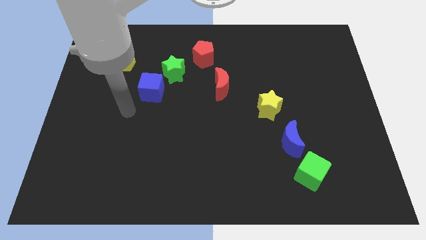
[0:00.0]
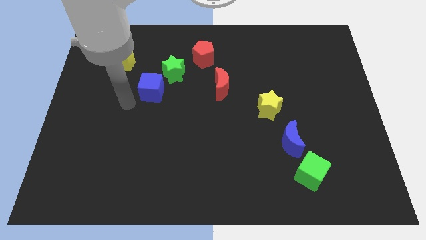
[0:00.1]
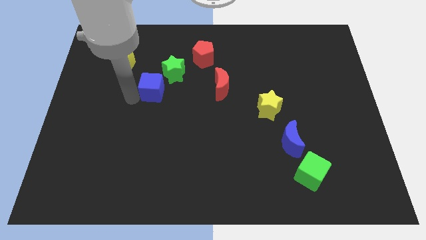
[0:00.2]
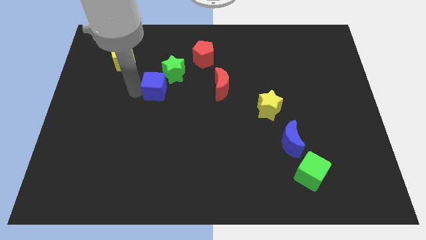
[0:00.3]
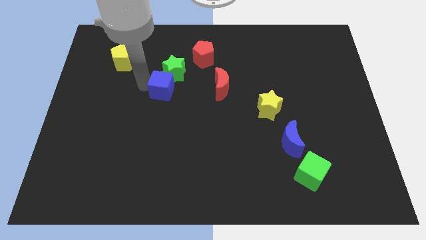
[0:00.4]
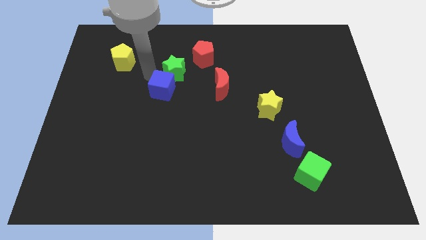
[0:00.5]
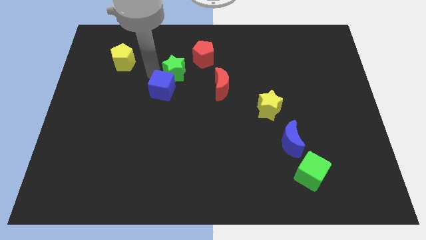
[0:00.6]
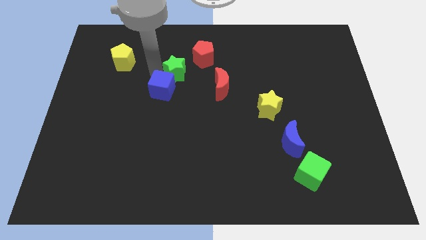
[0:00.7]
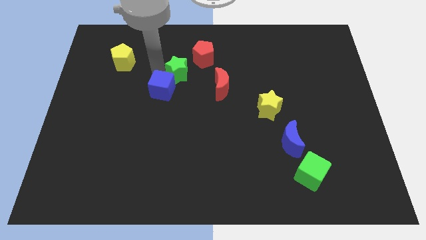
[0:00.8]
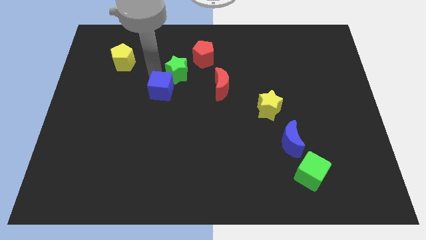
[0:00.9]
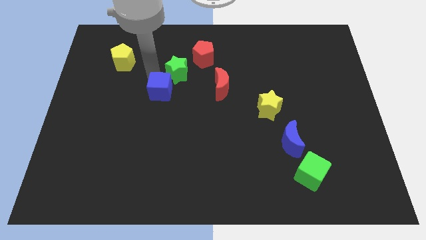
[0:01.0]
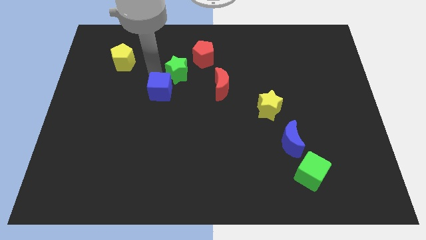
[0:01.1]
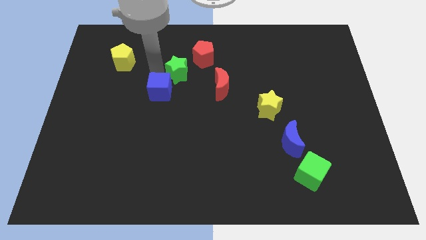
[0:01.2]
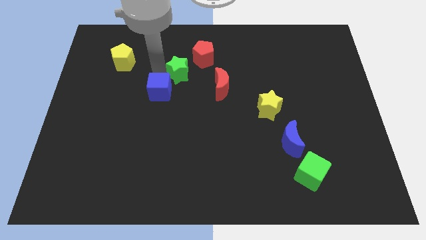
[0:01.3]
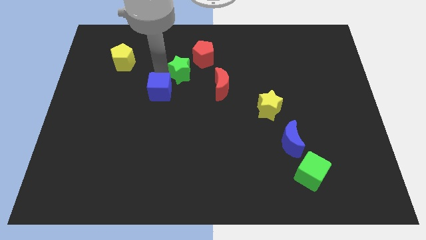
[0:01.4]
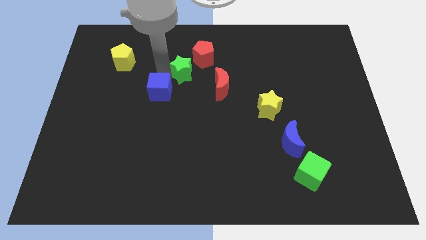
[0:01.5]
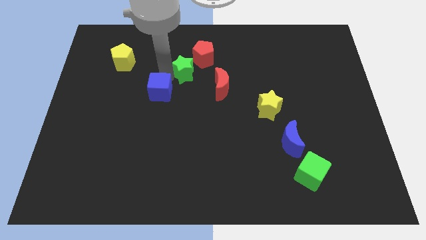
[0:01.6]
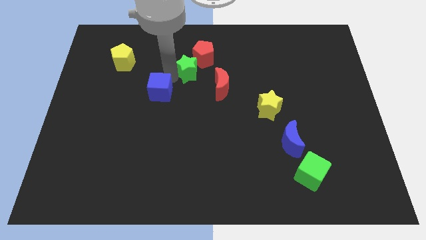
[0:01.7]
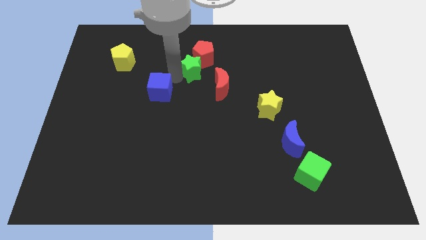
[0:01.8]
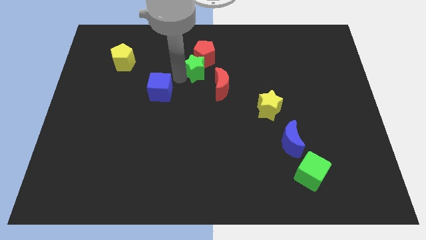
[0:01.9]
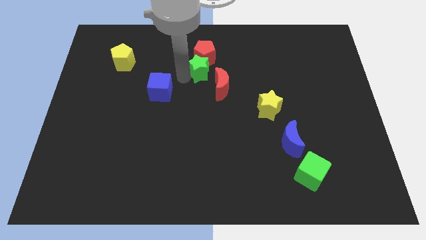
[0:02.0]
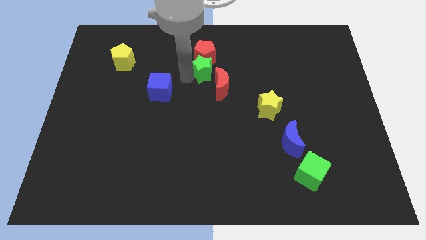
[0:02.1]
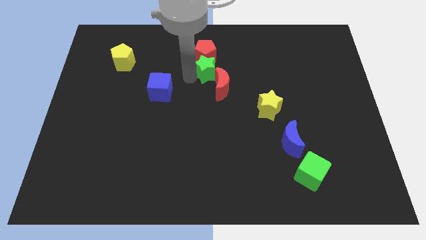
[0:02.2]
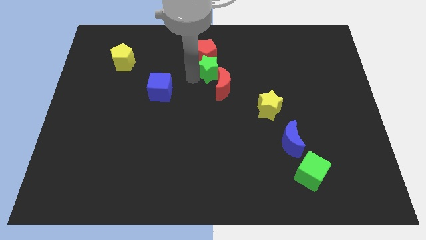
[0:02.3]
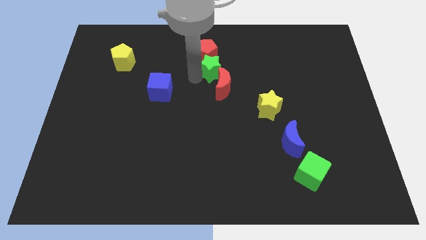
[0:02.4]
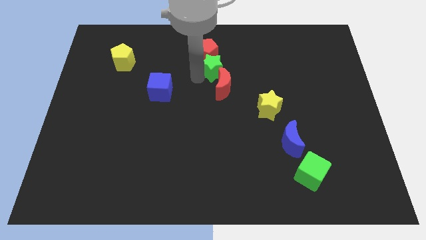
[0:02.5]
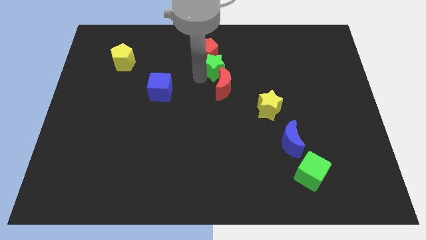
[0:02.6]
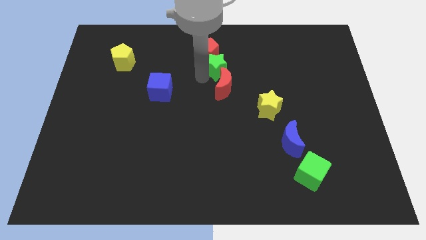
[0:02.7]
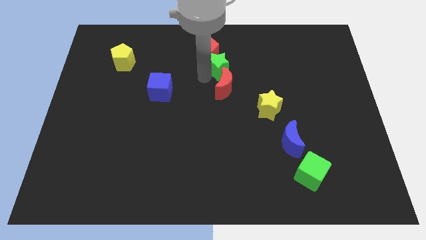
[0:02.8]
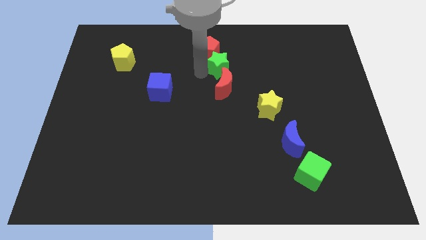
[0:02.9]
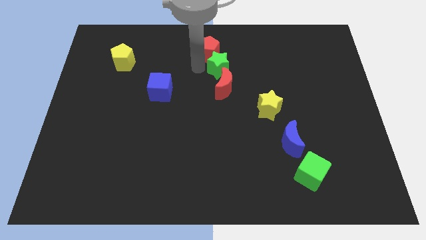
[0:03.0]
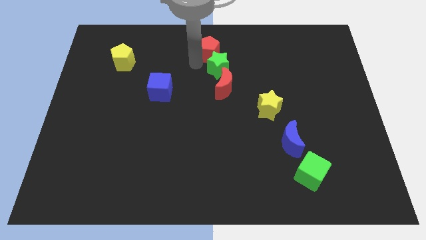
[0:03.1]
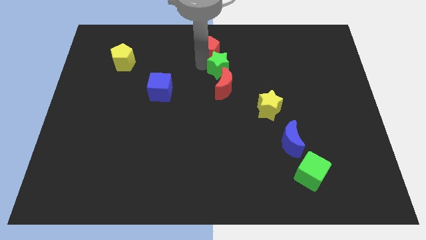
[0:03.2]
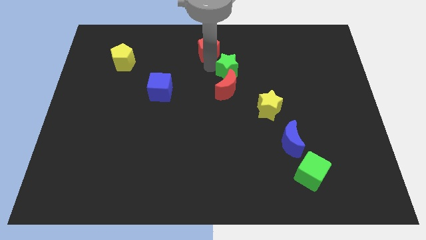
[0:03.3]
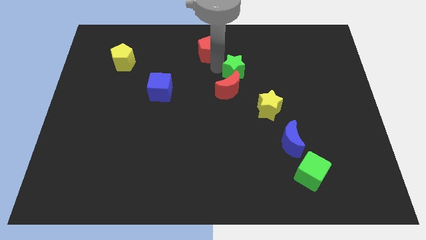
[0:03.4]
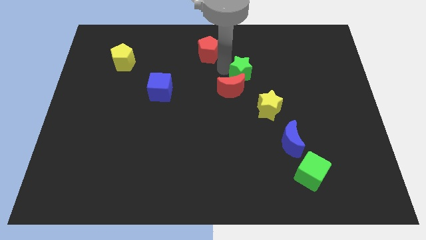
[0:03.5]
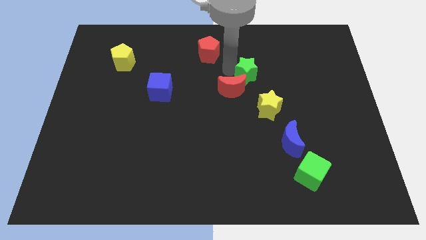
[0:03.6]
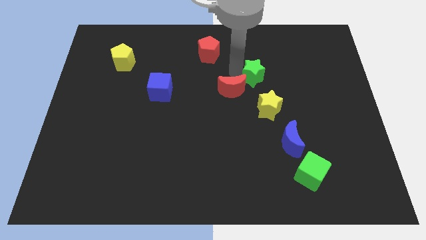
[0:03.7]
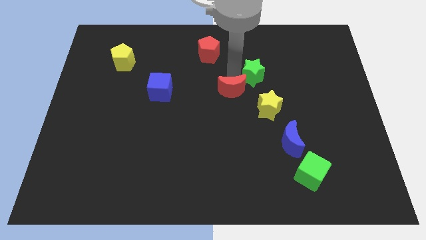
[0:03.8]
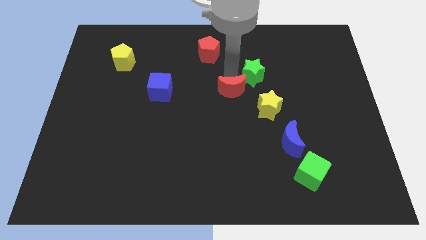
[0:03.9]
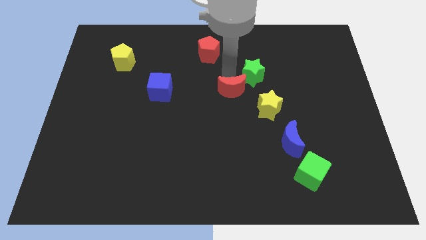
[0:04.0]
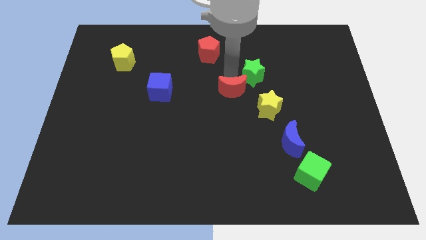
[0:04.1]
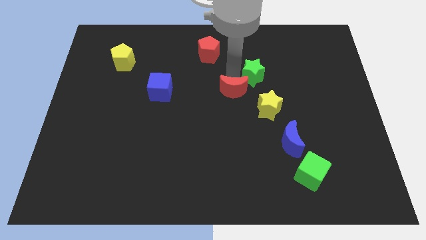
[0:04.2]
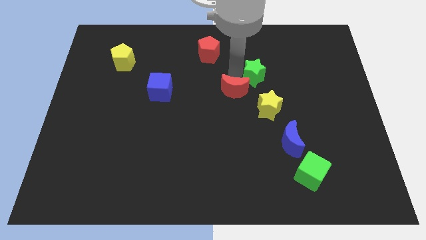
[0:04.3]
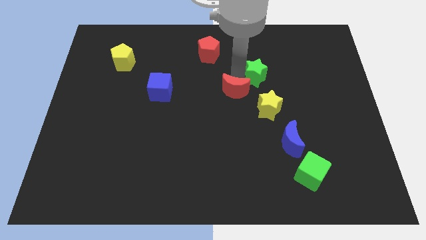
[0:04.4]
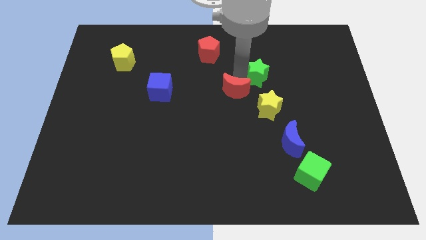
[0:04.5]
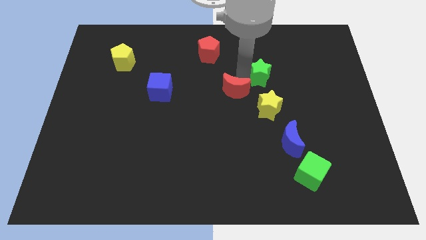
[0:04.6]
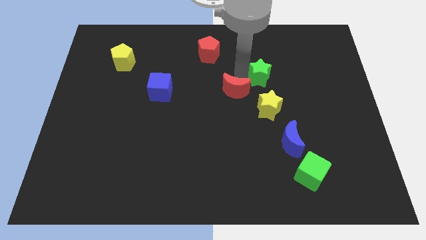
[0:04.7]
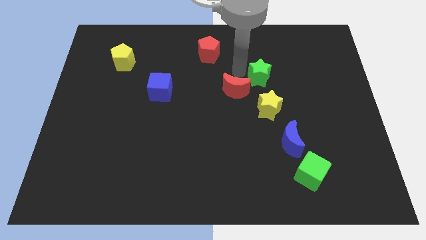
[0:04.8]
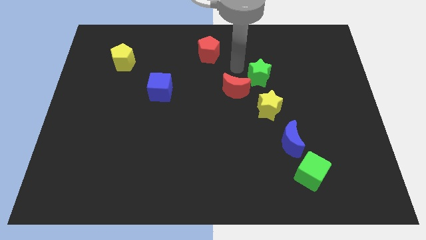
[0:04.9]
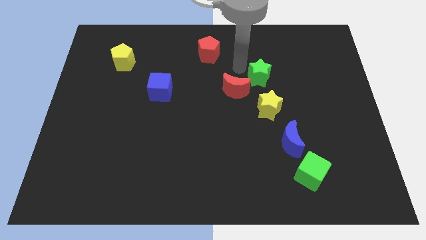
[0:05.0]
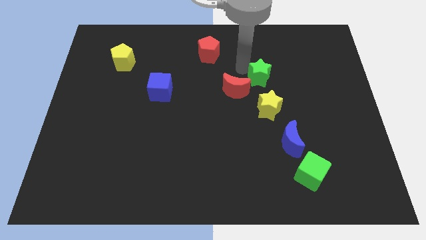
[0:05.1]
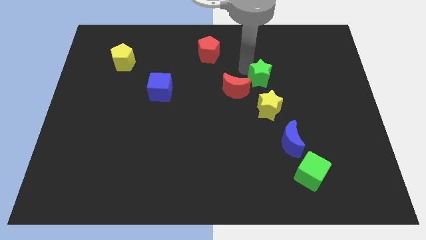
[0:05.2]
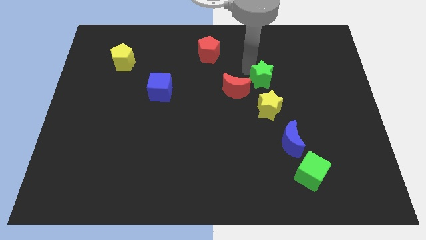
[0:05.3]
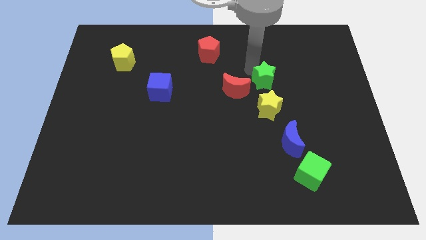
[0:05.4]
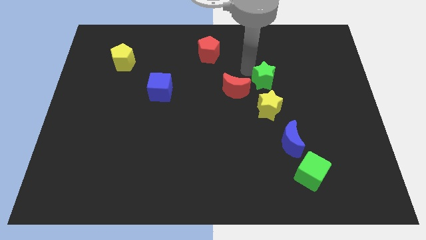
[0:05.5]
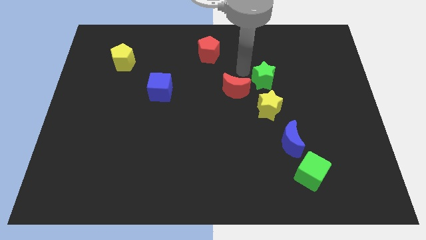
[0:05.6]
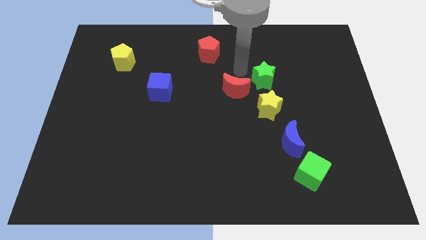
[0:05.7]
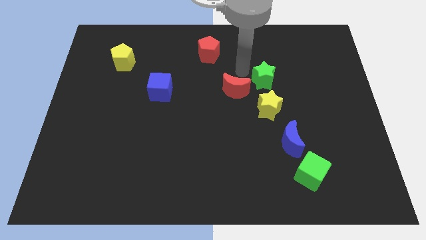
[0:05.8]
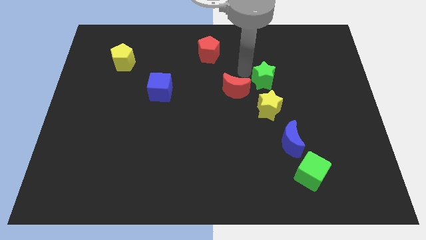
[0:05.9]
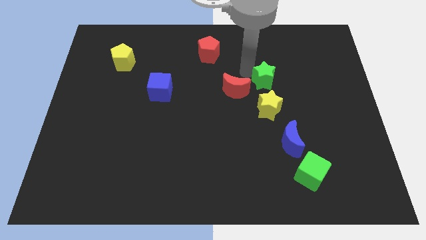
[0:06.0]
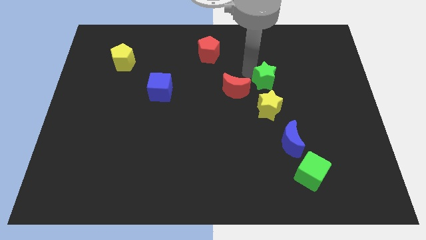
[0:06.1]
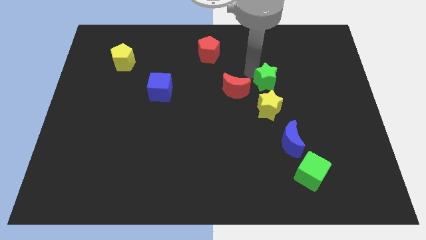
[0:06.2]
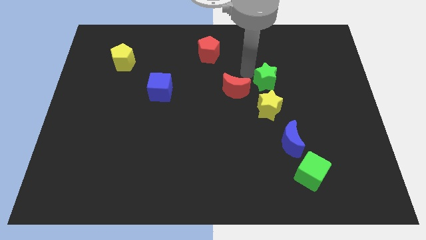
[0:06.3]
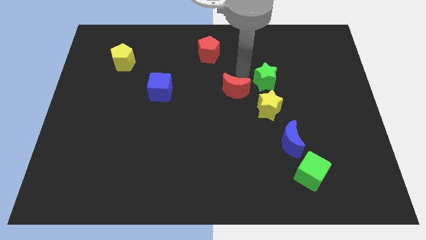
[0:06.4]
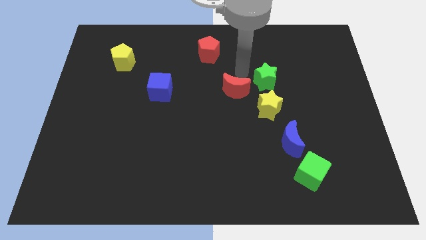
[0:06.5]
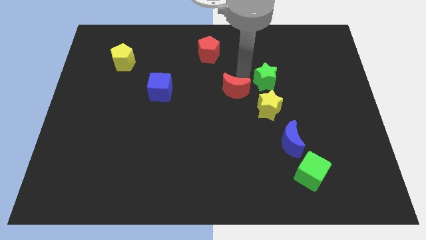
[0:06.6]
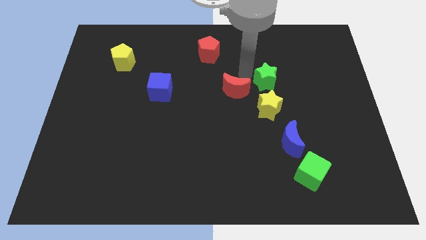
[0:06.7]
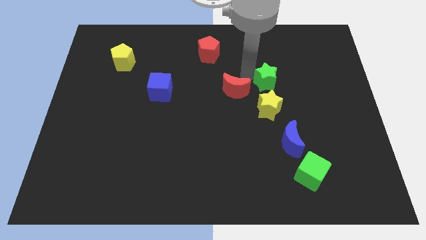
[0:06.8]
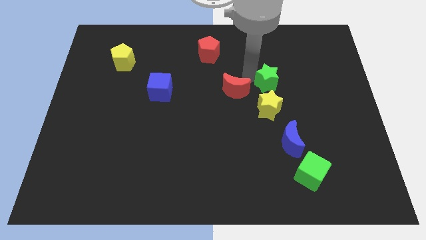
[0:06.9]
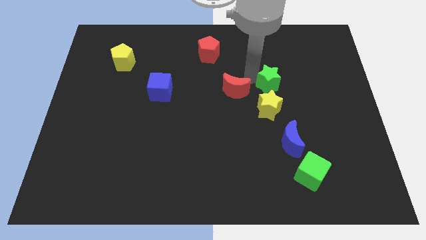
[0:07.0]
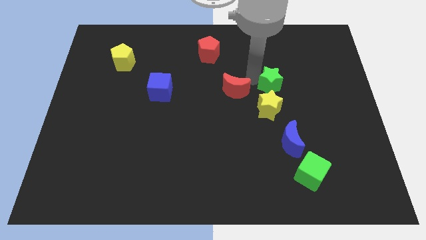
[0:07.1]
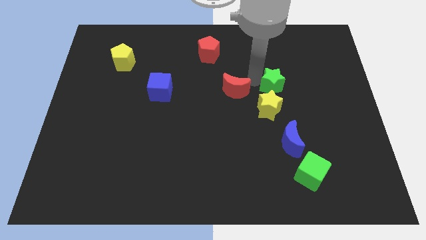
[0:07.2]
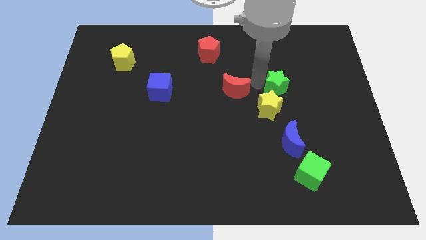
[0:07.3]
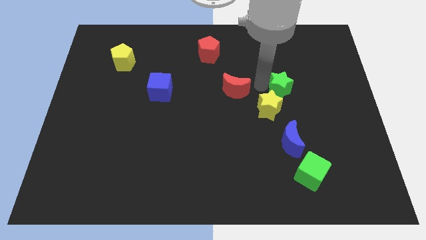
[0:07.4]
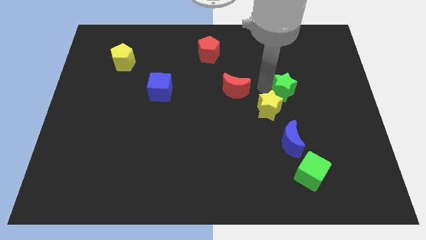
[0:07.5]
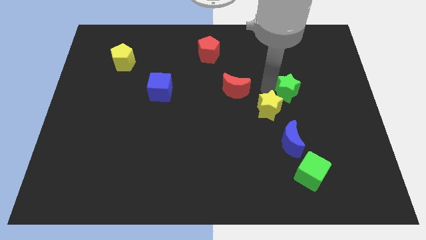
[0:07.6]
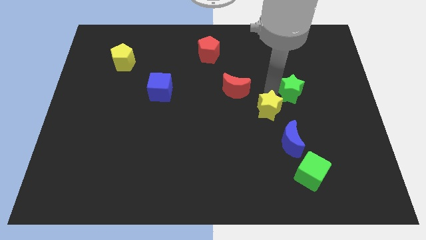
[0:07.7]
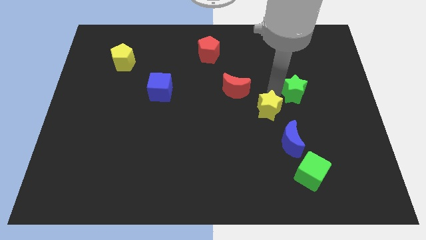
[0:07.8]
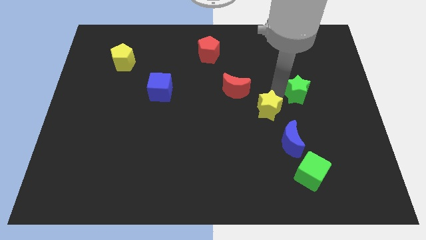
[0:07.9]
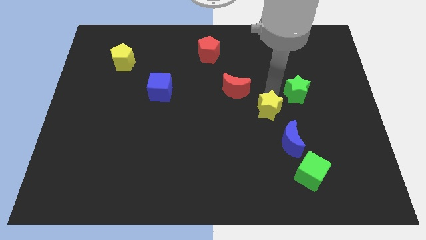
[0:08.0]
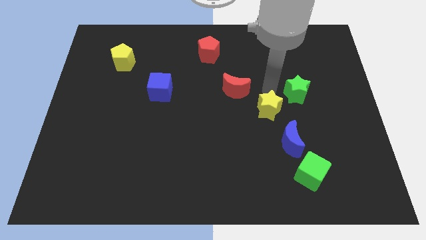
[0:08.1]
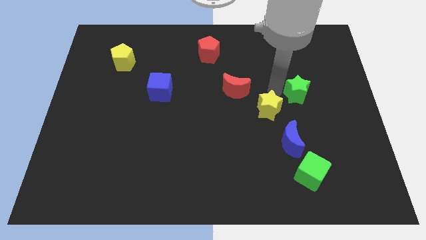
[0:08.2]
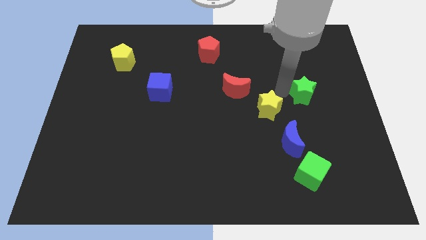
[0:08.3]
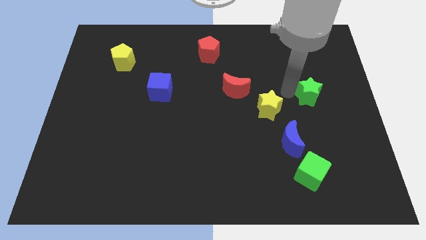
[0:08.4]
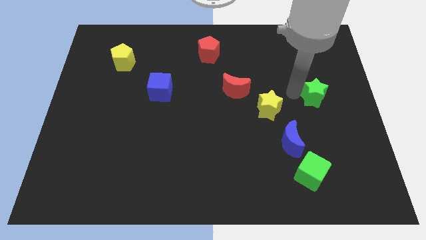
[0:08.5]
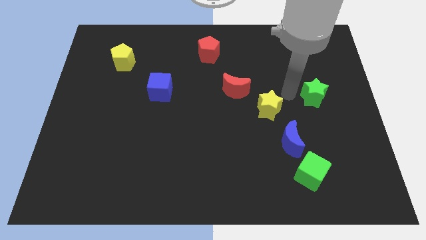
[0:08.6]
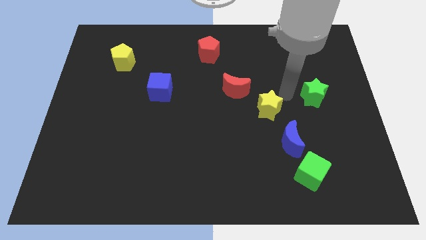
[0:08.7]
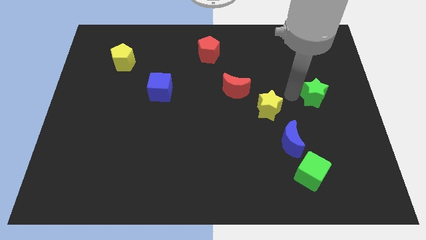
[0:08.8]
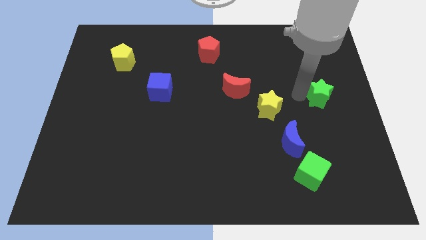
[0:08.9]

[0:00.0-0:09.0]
move the green star to the right side of the board
